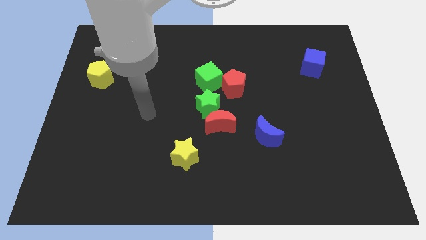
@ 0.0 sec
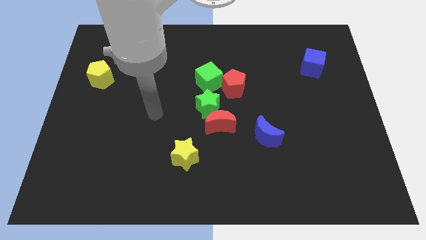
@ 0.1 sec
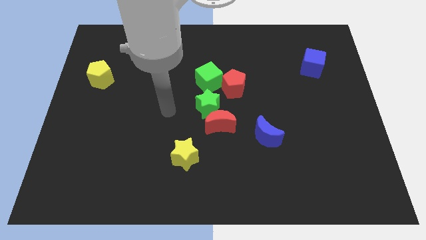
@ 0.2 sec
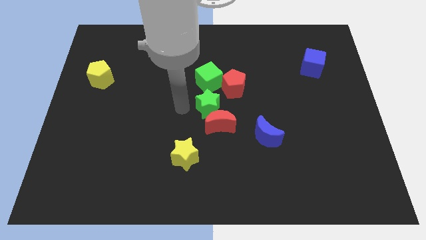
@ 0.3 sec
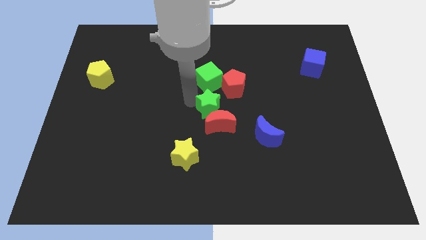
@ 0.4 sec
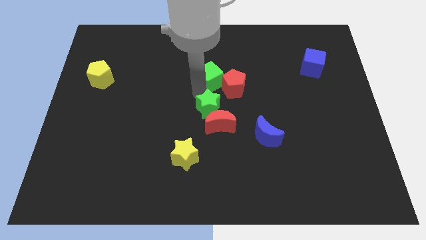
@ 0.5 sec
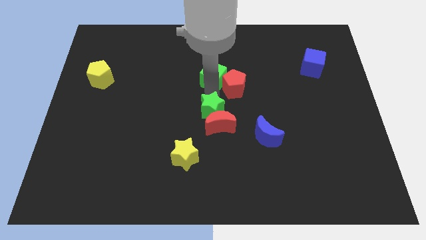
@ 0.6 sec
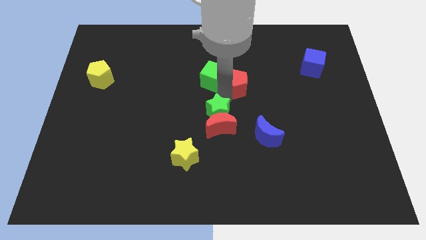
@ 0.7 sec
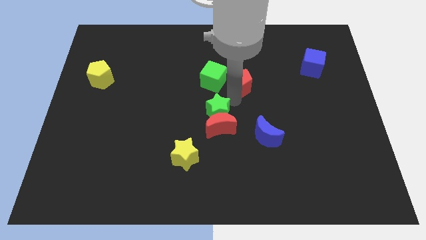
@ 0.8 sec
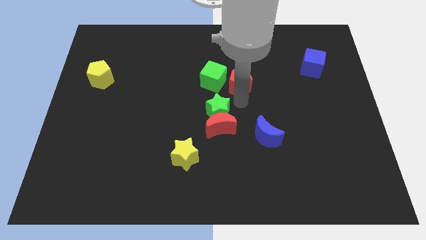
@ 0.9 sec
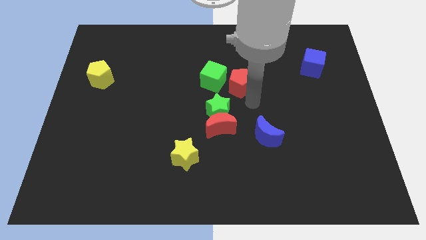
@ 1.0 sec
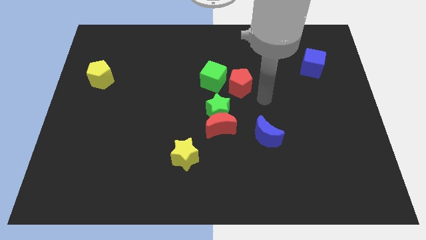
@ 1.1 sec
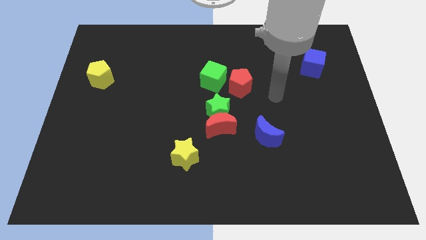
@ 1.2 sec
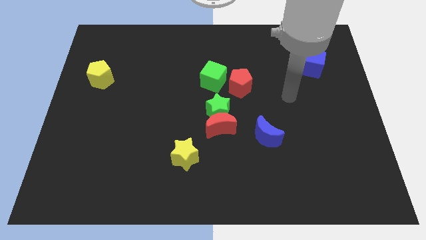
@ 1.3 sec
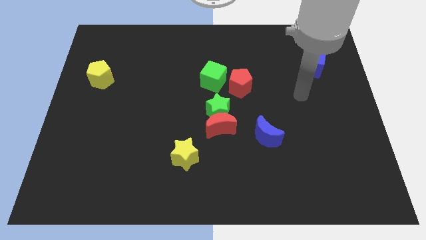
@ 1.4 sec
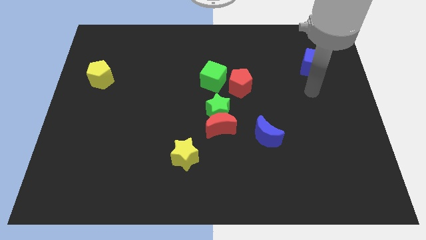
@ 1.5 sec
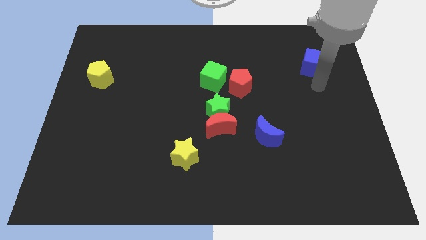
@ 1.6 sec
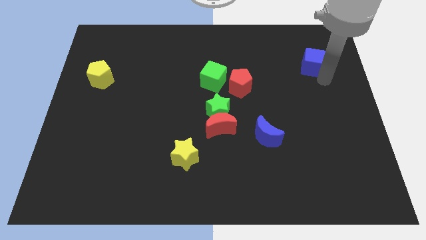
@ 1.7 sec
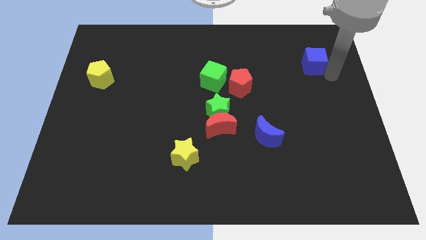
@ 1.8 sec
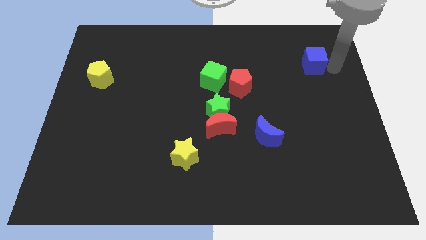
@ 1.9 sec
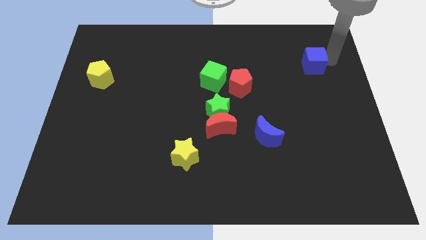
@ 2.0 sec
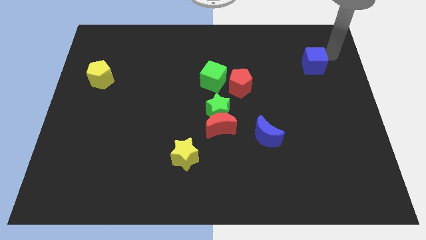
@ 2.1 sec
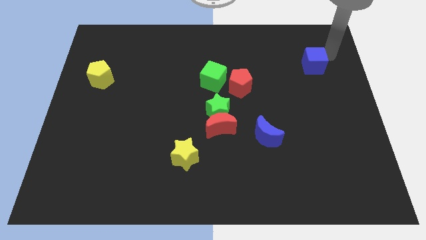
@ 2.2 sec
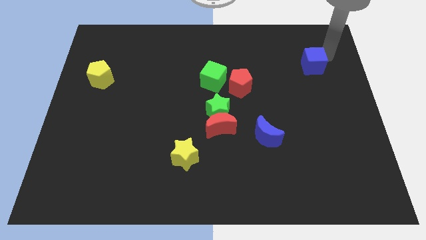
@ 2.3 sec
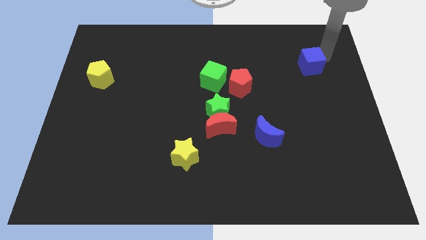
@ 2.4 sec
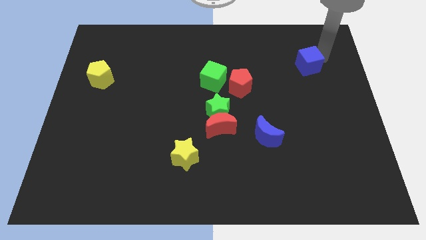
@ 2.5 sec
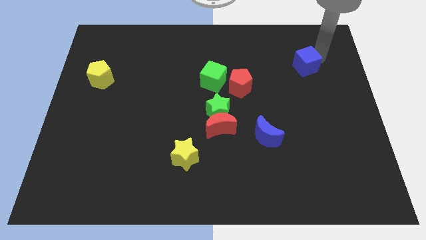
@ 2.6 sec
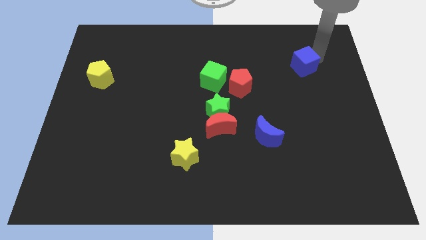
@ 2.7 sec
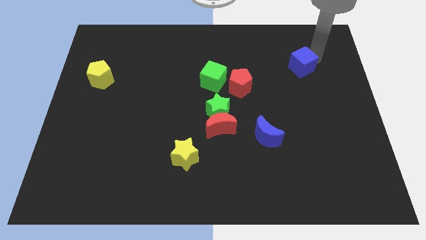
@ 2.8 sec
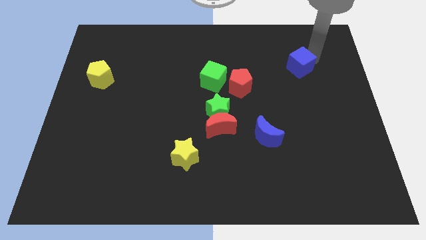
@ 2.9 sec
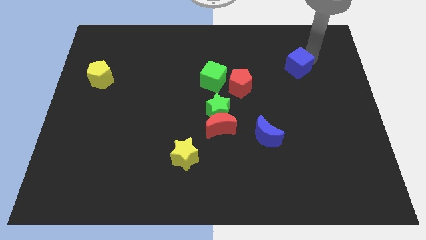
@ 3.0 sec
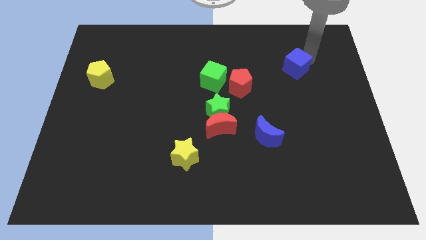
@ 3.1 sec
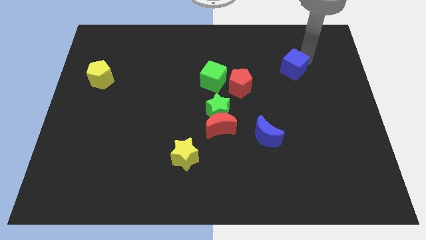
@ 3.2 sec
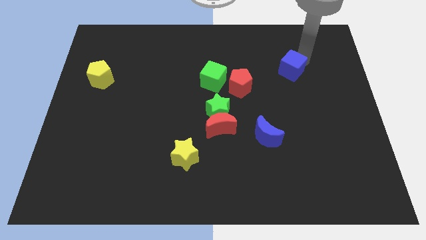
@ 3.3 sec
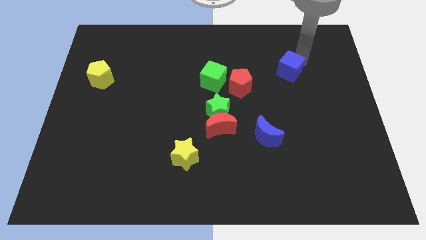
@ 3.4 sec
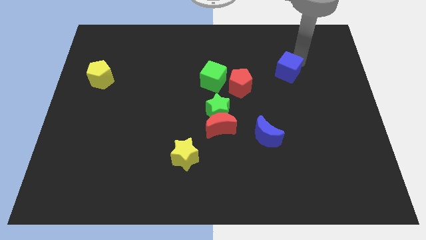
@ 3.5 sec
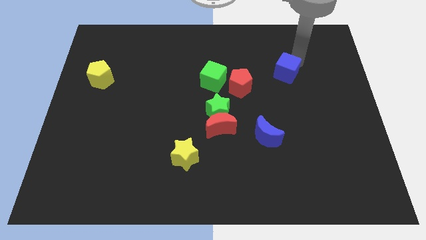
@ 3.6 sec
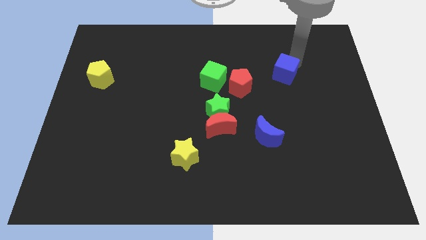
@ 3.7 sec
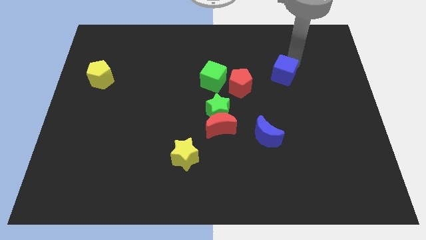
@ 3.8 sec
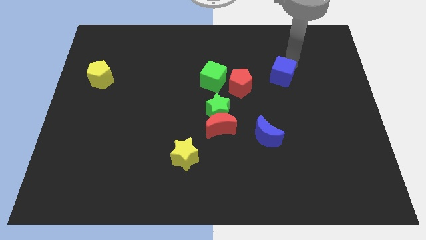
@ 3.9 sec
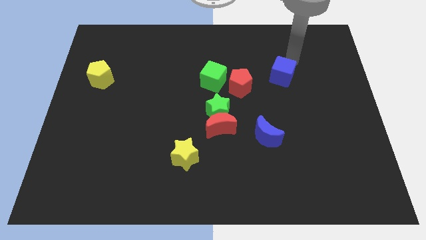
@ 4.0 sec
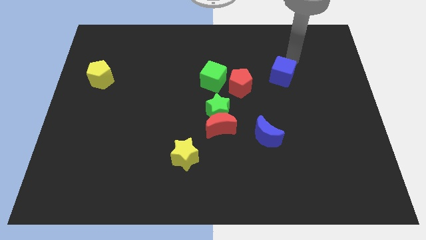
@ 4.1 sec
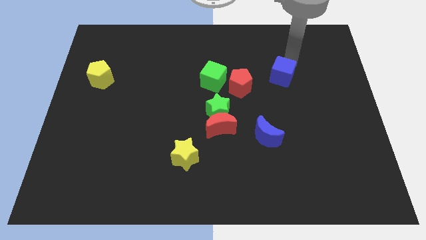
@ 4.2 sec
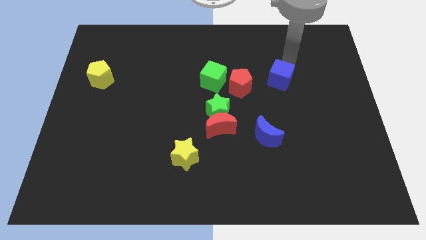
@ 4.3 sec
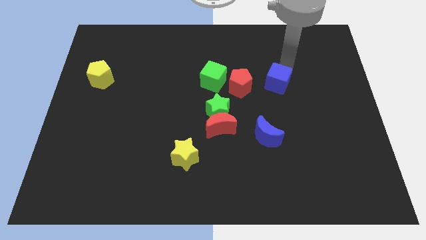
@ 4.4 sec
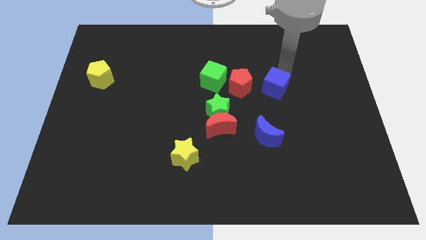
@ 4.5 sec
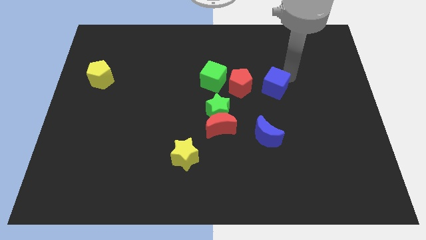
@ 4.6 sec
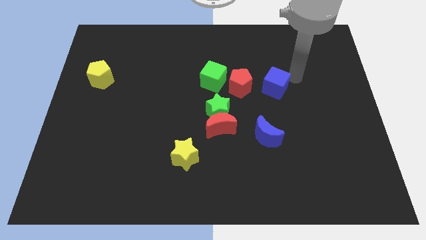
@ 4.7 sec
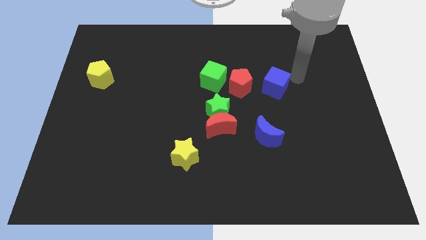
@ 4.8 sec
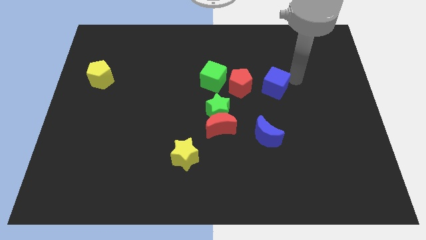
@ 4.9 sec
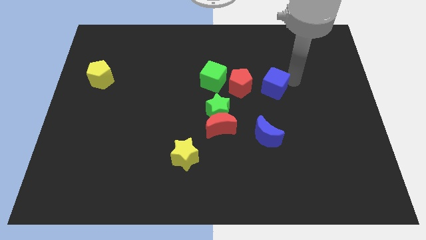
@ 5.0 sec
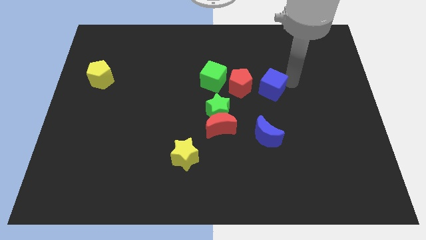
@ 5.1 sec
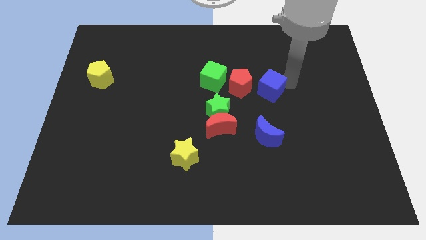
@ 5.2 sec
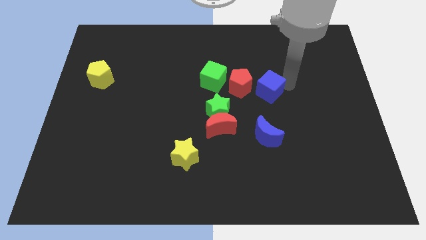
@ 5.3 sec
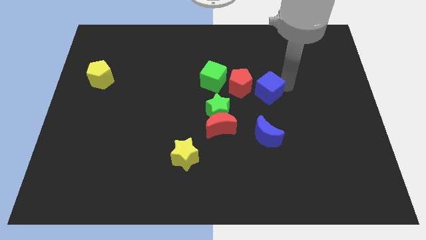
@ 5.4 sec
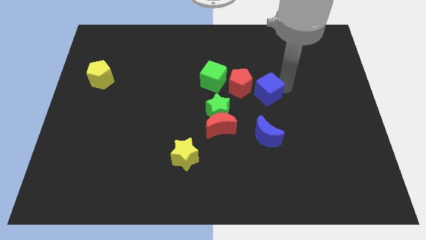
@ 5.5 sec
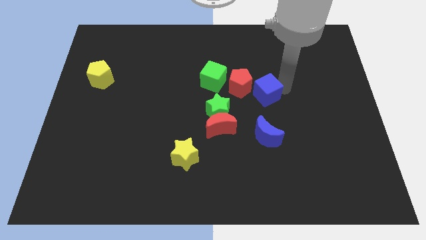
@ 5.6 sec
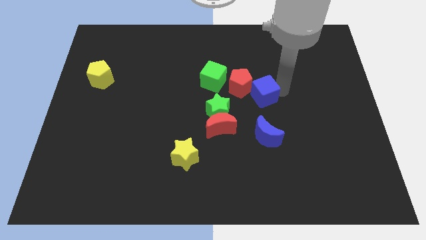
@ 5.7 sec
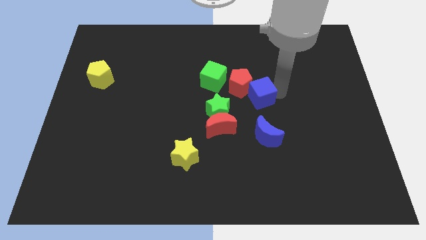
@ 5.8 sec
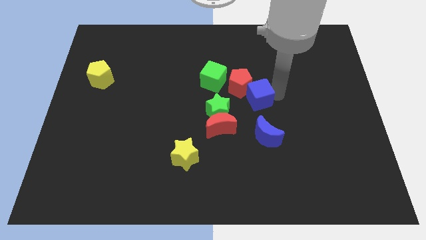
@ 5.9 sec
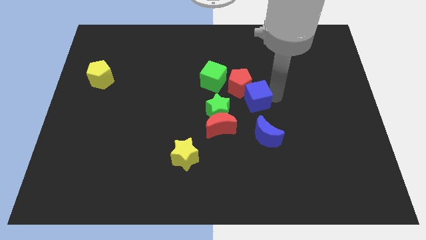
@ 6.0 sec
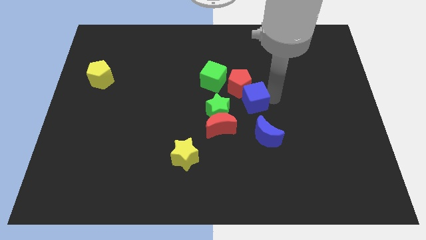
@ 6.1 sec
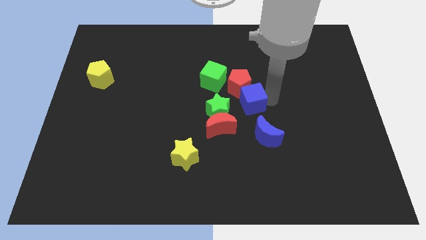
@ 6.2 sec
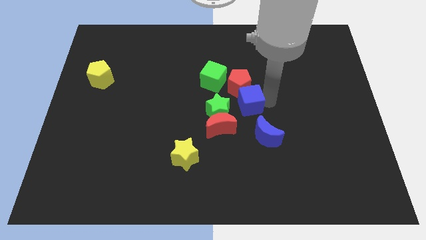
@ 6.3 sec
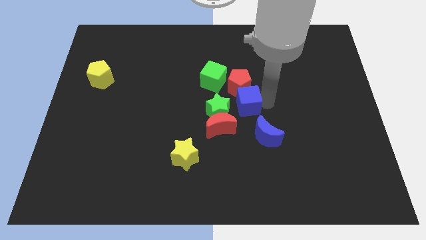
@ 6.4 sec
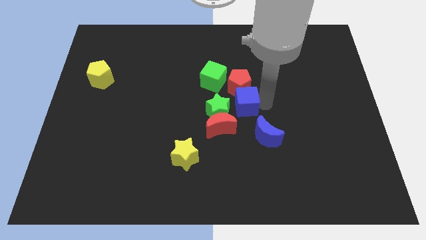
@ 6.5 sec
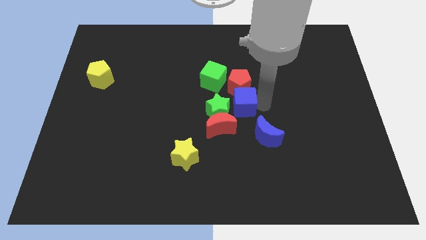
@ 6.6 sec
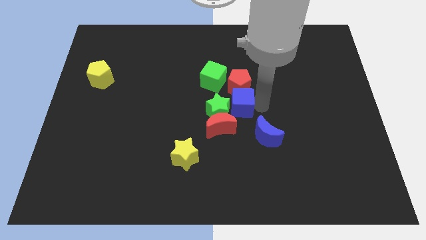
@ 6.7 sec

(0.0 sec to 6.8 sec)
move the blue cube next to the green star

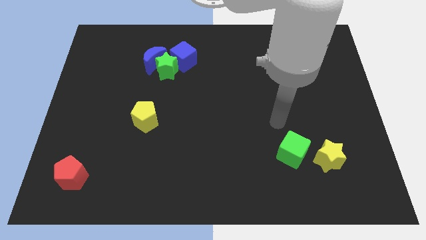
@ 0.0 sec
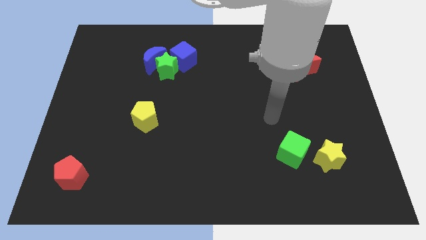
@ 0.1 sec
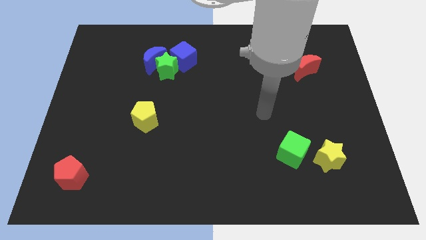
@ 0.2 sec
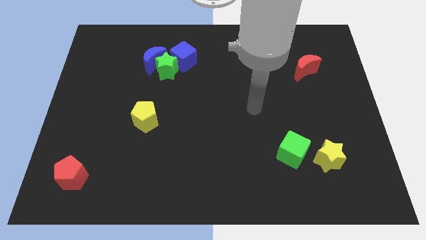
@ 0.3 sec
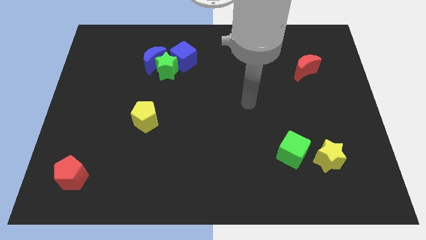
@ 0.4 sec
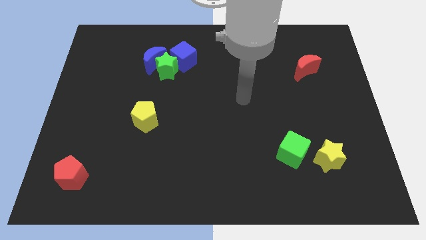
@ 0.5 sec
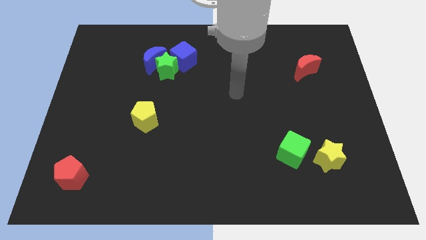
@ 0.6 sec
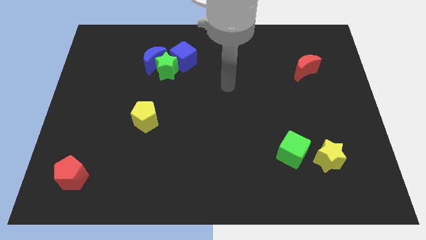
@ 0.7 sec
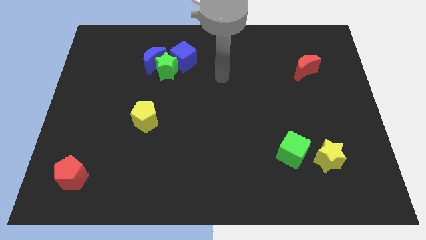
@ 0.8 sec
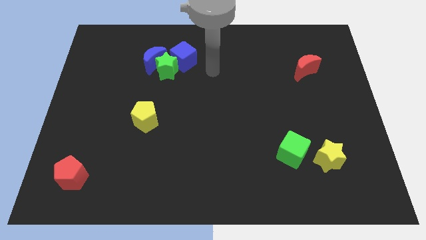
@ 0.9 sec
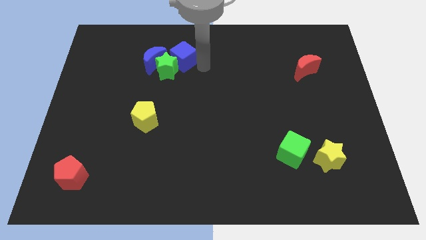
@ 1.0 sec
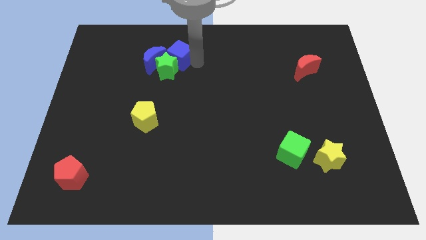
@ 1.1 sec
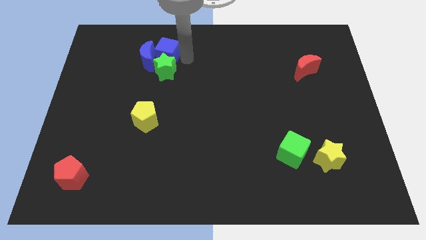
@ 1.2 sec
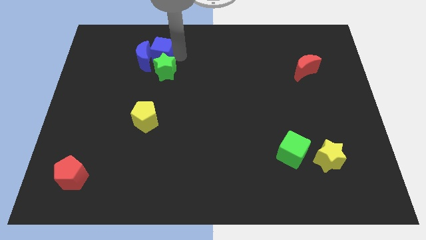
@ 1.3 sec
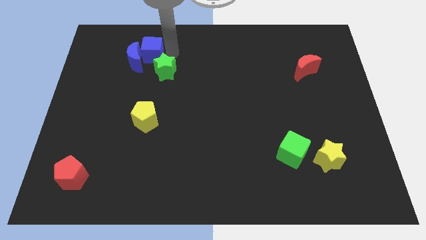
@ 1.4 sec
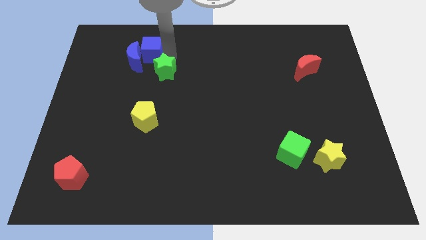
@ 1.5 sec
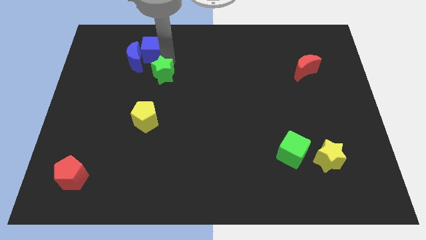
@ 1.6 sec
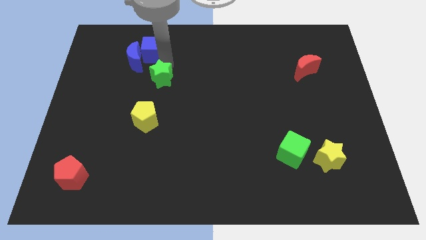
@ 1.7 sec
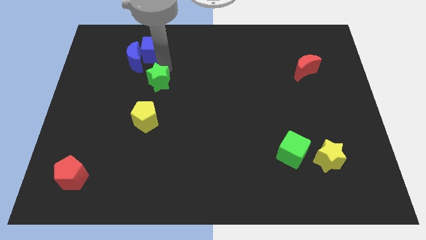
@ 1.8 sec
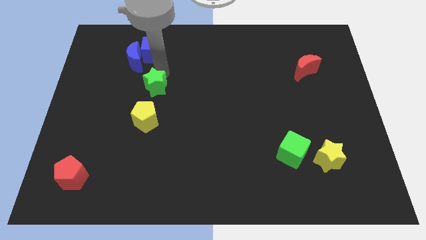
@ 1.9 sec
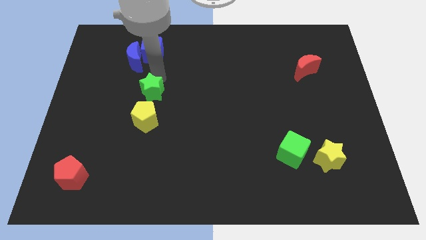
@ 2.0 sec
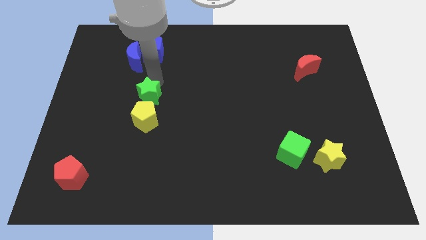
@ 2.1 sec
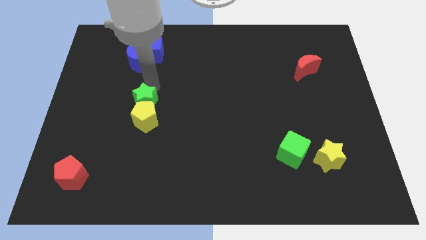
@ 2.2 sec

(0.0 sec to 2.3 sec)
move the green star to the yellow pentagon
